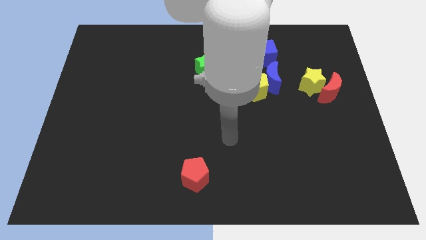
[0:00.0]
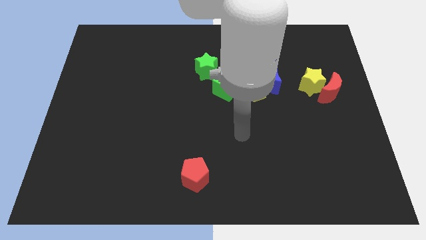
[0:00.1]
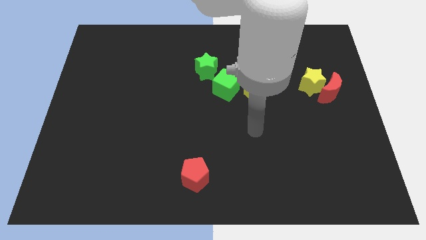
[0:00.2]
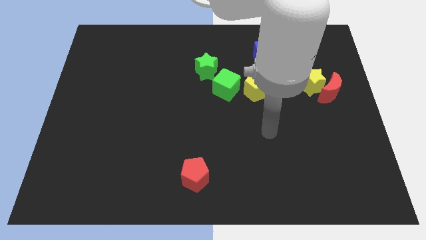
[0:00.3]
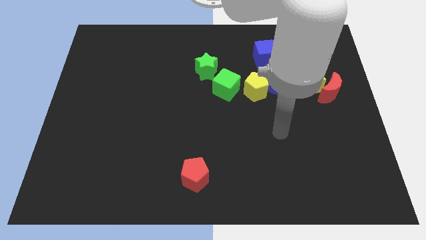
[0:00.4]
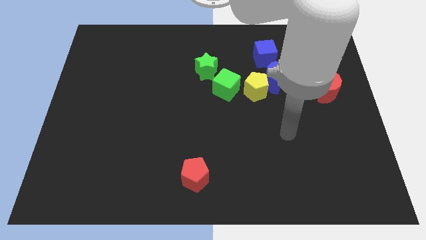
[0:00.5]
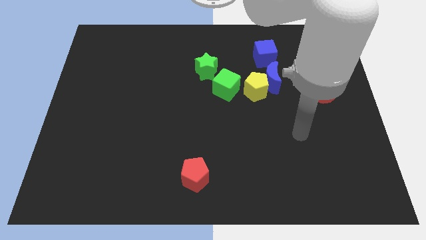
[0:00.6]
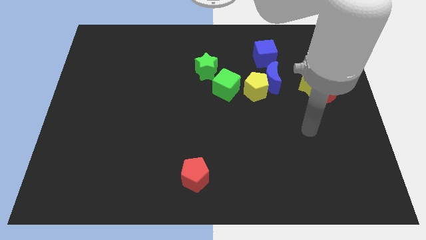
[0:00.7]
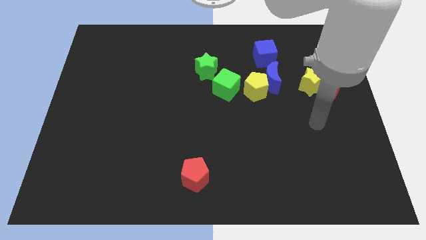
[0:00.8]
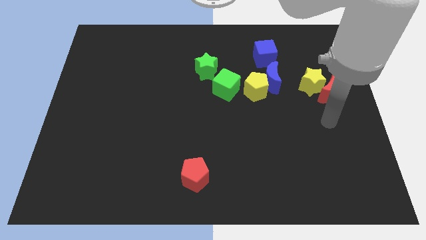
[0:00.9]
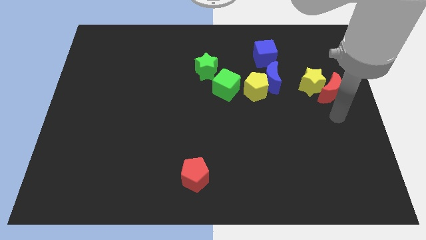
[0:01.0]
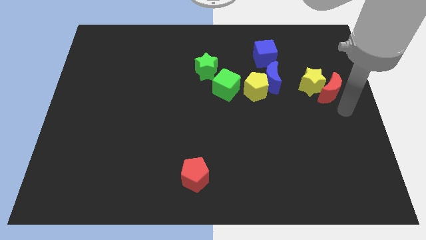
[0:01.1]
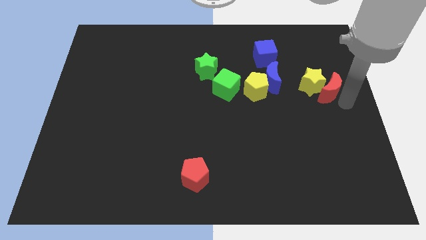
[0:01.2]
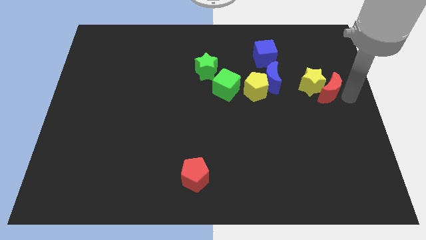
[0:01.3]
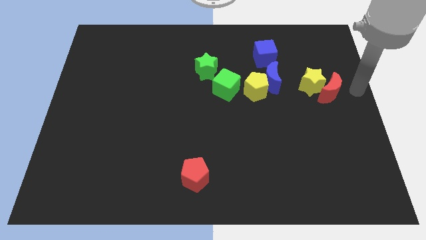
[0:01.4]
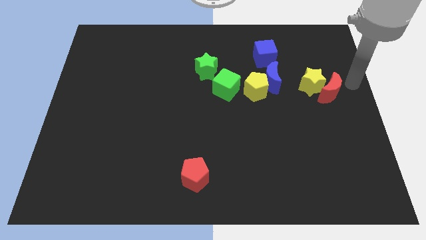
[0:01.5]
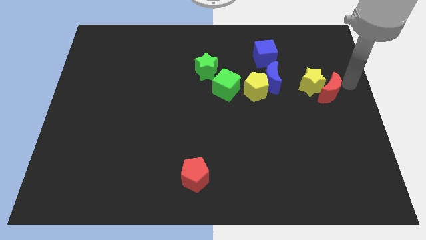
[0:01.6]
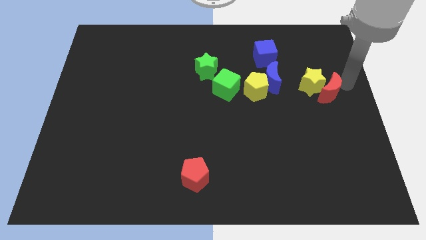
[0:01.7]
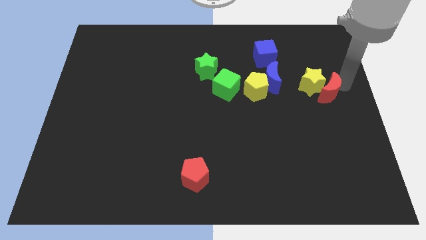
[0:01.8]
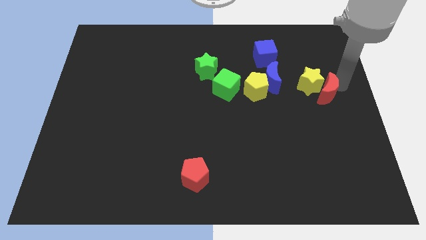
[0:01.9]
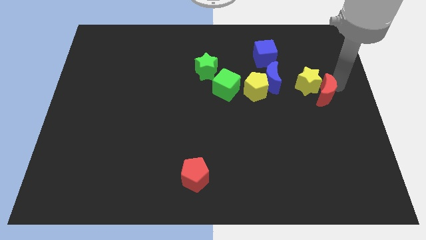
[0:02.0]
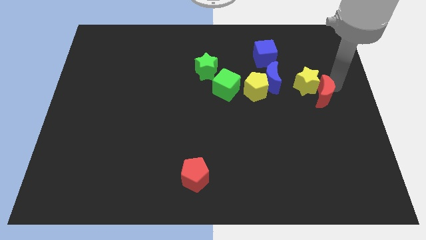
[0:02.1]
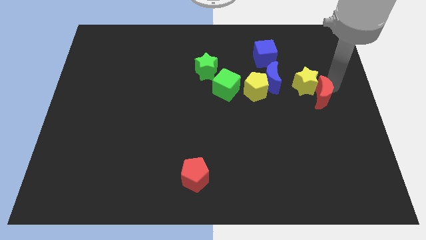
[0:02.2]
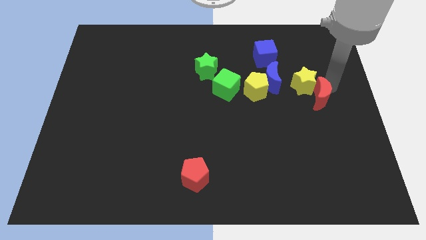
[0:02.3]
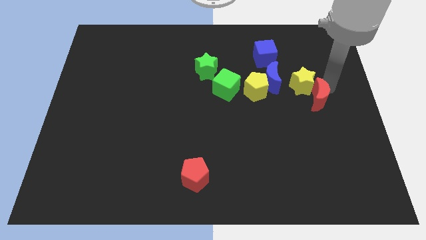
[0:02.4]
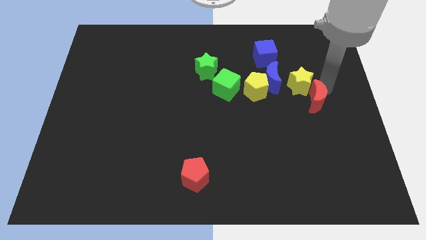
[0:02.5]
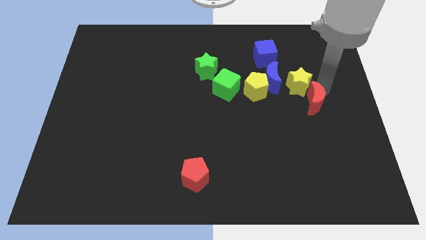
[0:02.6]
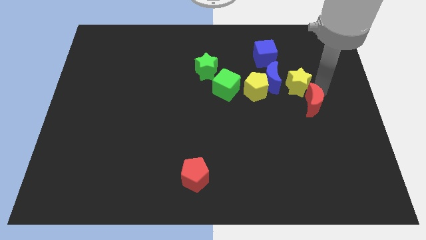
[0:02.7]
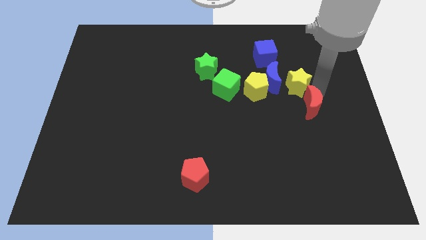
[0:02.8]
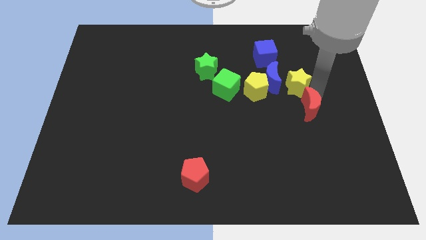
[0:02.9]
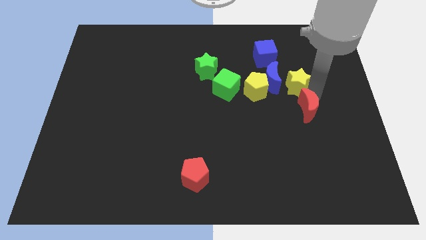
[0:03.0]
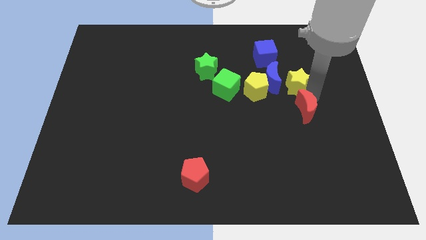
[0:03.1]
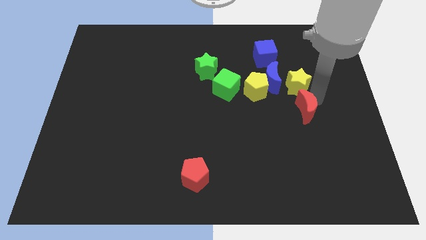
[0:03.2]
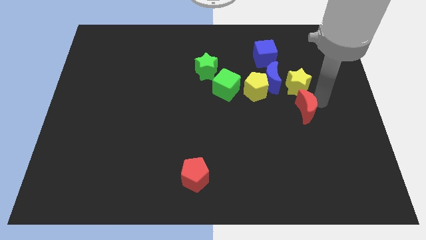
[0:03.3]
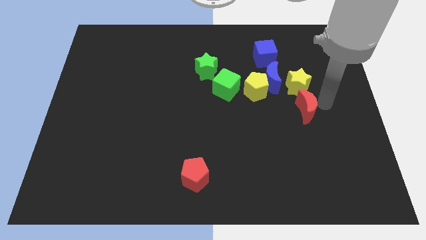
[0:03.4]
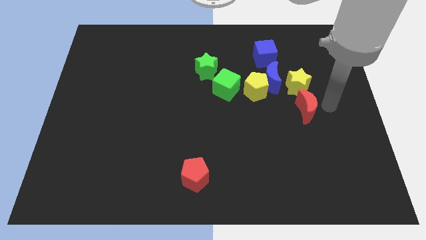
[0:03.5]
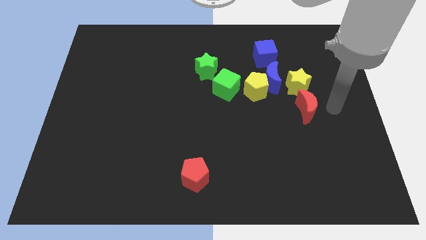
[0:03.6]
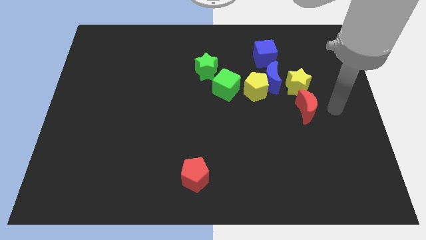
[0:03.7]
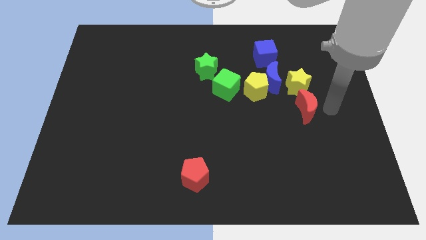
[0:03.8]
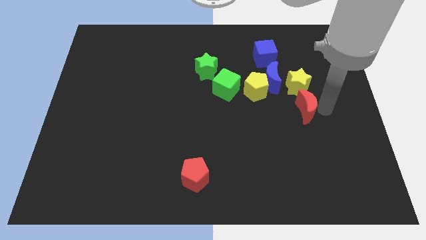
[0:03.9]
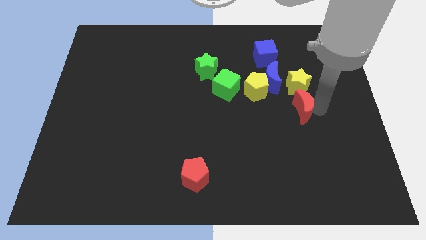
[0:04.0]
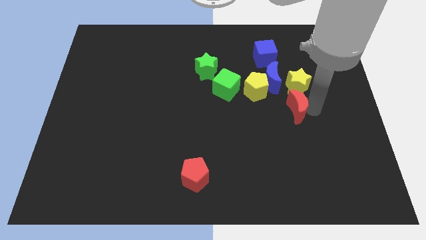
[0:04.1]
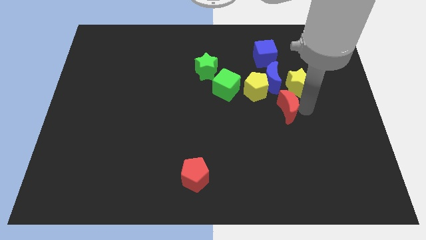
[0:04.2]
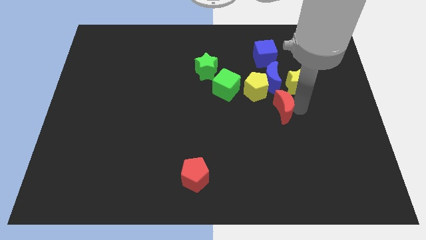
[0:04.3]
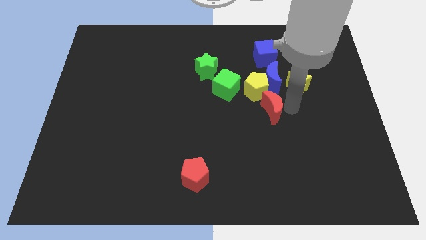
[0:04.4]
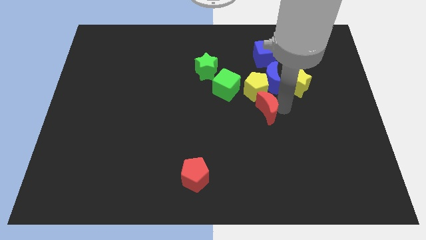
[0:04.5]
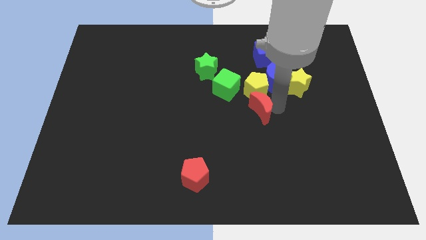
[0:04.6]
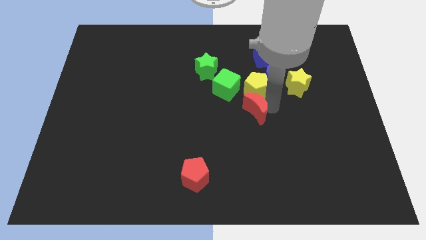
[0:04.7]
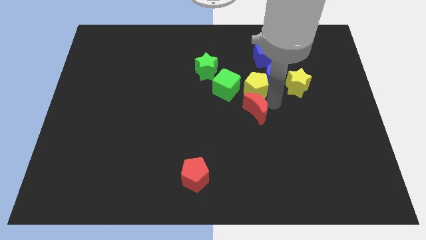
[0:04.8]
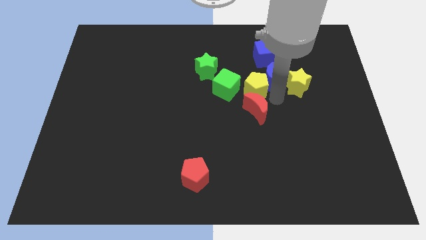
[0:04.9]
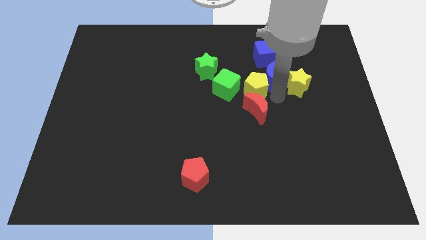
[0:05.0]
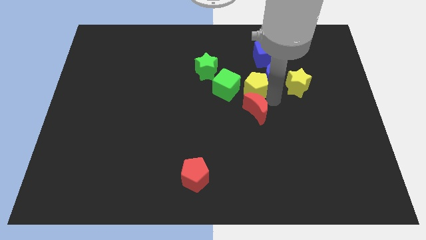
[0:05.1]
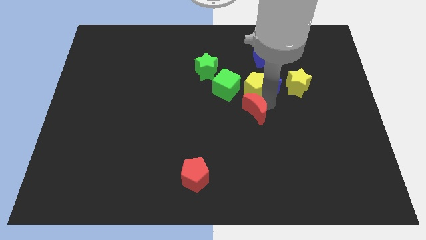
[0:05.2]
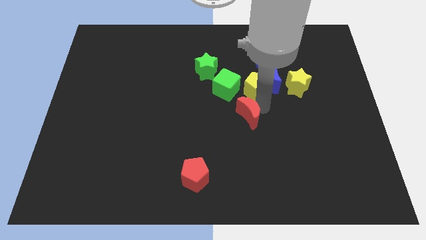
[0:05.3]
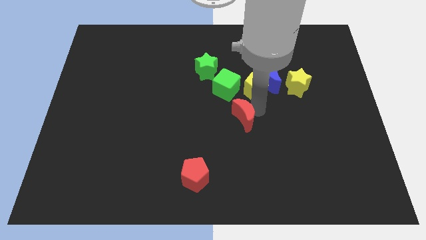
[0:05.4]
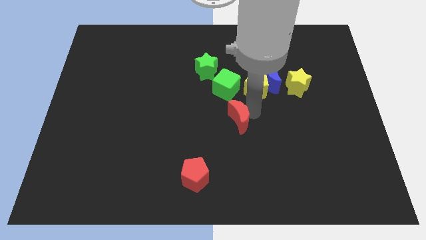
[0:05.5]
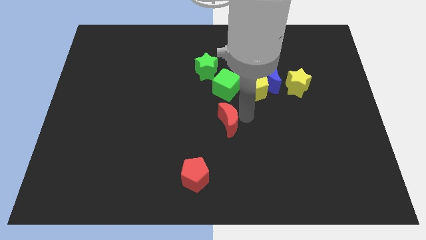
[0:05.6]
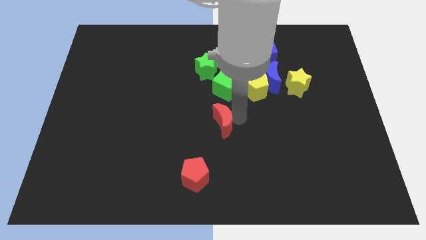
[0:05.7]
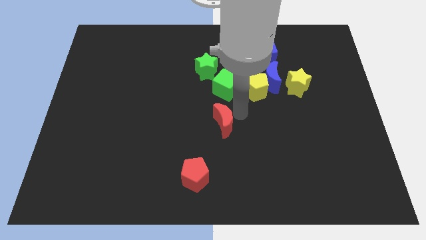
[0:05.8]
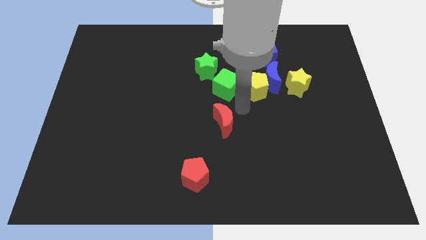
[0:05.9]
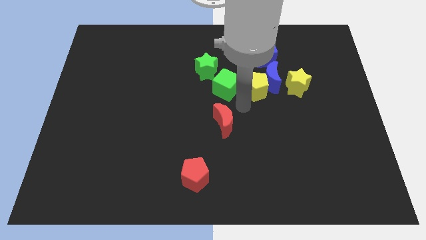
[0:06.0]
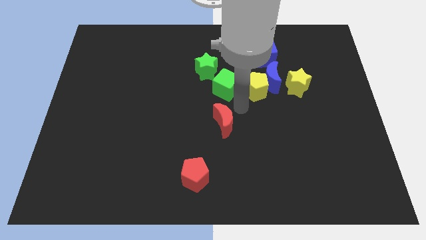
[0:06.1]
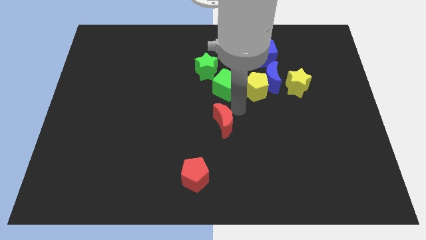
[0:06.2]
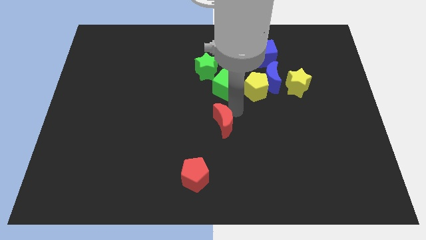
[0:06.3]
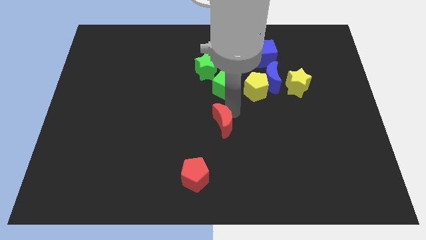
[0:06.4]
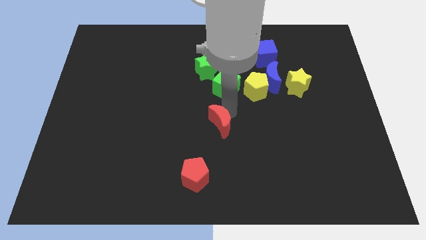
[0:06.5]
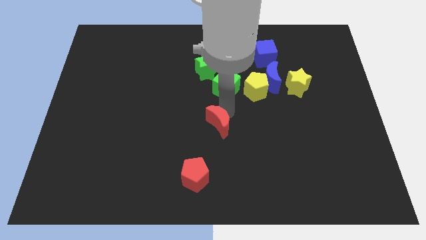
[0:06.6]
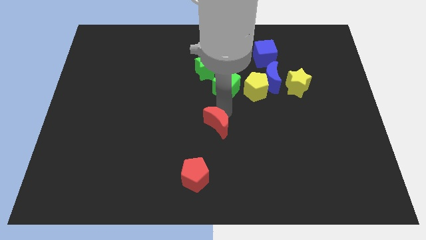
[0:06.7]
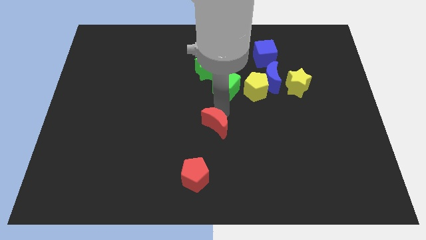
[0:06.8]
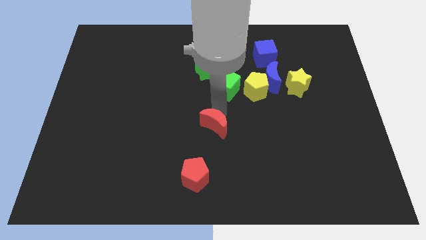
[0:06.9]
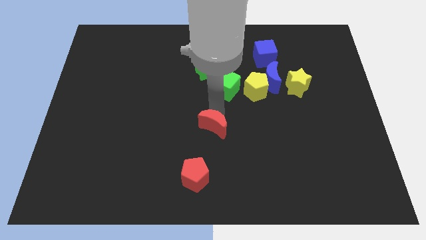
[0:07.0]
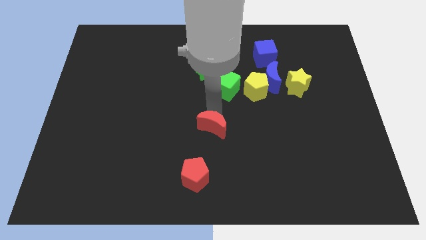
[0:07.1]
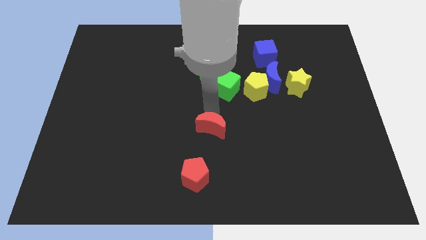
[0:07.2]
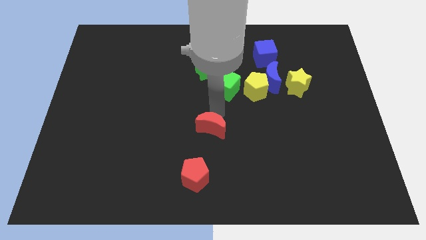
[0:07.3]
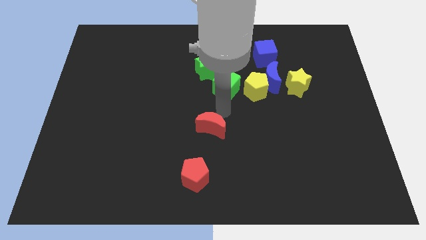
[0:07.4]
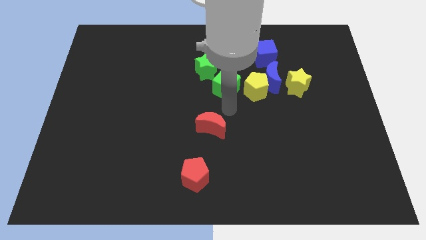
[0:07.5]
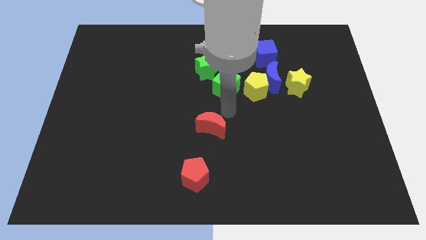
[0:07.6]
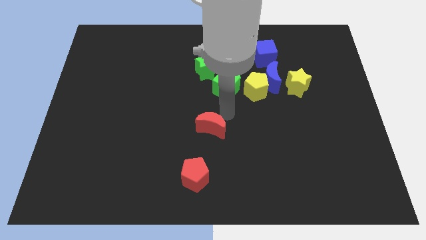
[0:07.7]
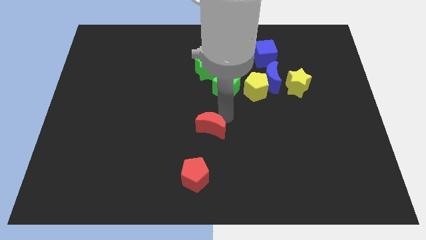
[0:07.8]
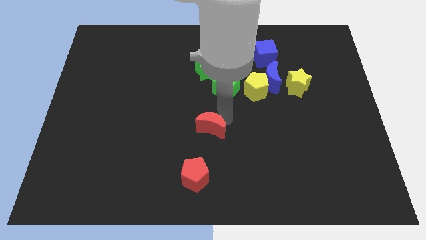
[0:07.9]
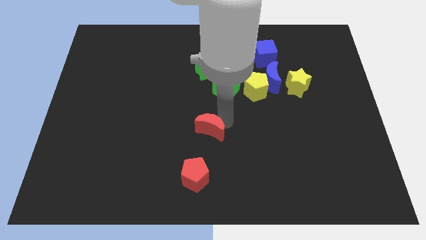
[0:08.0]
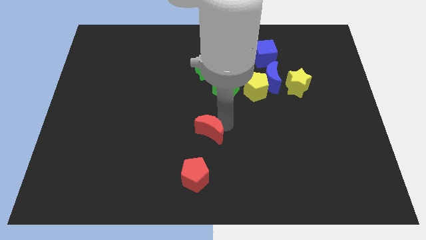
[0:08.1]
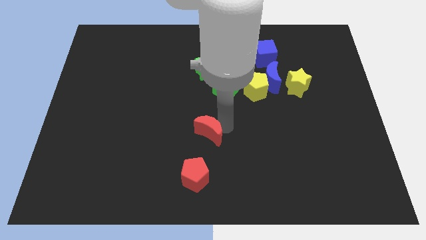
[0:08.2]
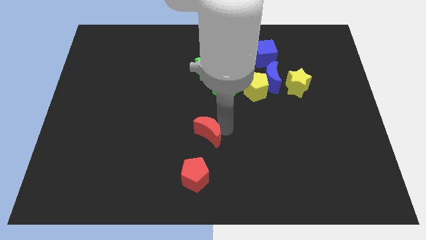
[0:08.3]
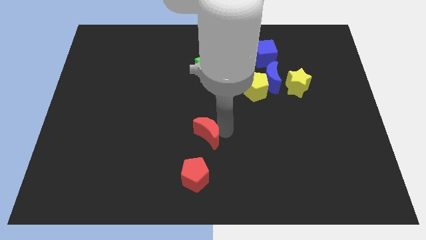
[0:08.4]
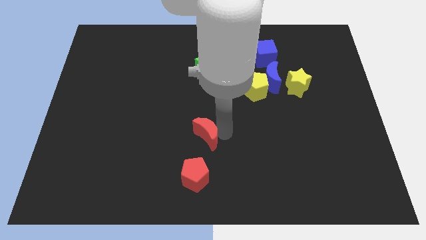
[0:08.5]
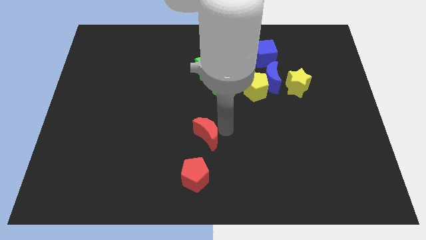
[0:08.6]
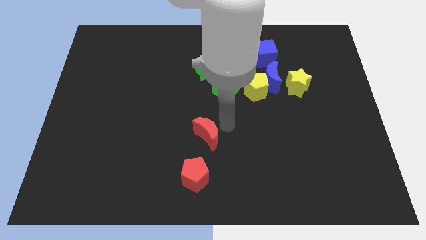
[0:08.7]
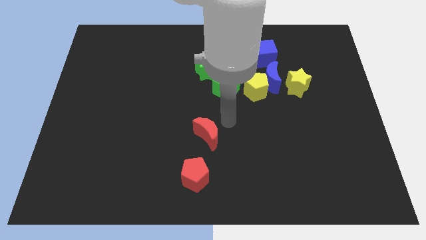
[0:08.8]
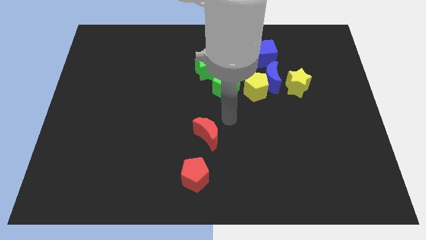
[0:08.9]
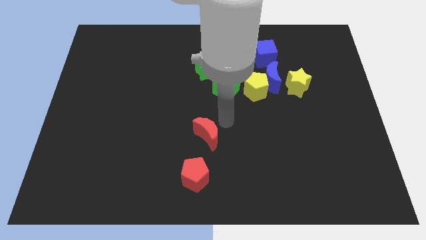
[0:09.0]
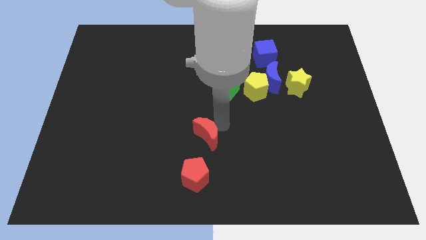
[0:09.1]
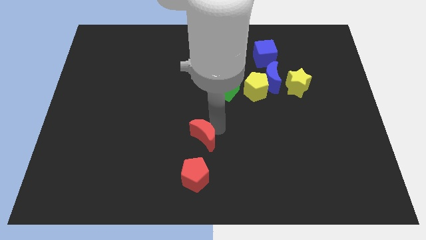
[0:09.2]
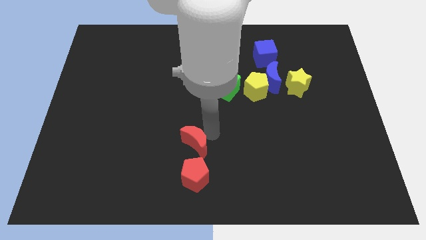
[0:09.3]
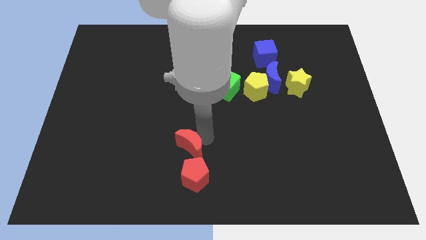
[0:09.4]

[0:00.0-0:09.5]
put the red moon to the top left side of the red pentagon
